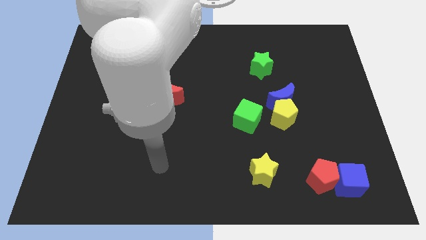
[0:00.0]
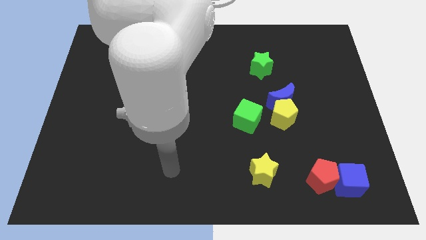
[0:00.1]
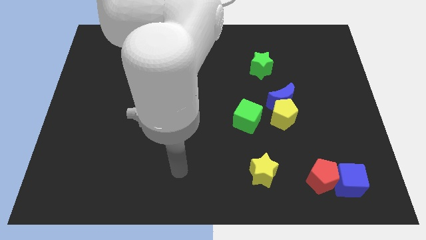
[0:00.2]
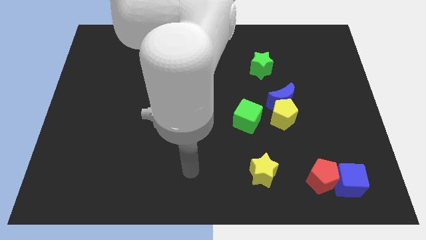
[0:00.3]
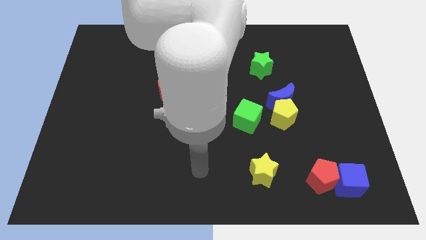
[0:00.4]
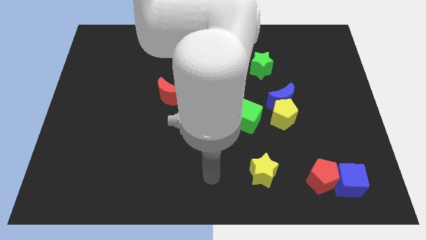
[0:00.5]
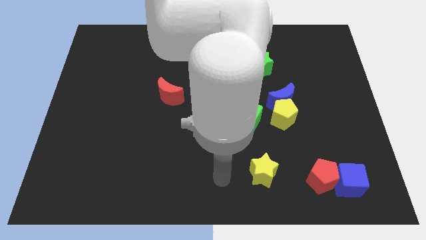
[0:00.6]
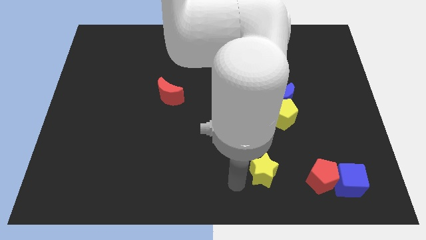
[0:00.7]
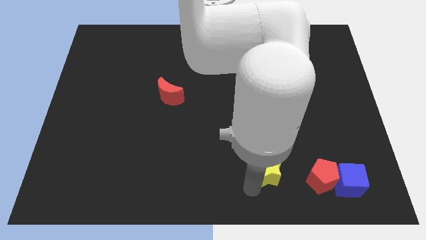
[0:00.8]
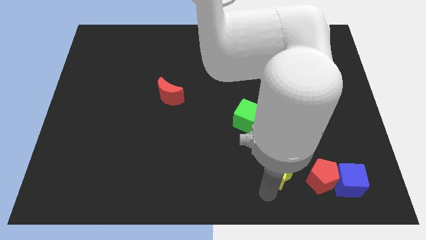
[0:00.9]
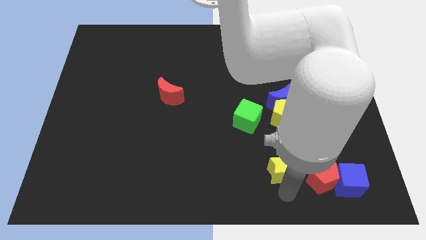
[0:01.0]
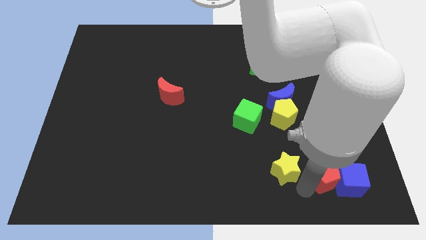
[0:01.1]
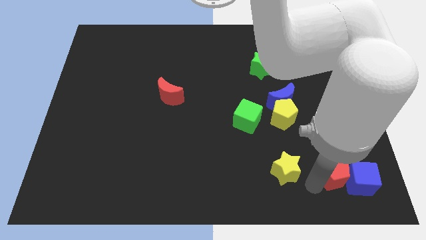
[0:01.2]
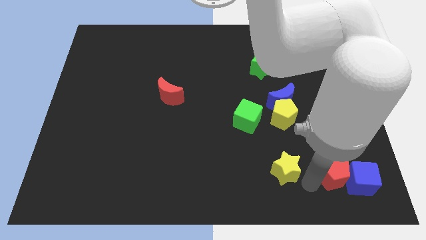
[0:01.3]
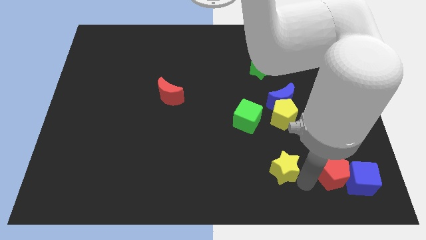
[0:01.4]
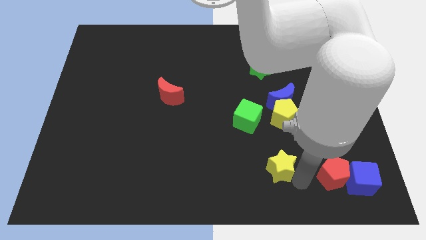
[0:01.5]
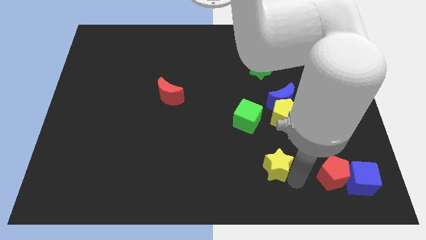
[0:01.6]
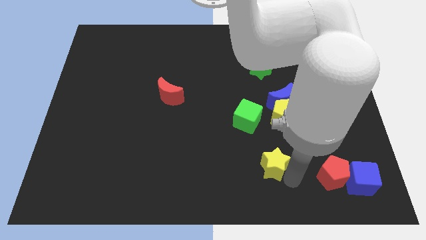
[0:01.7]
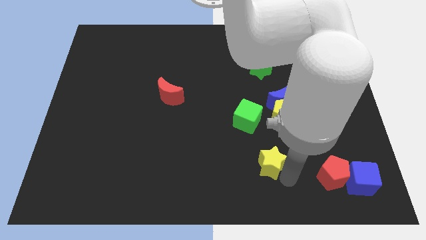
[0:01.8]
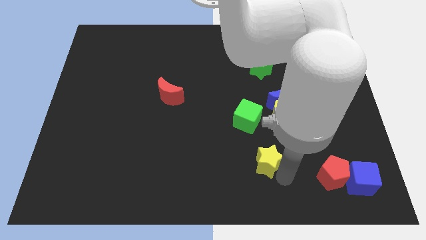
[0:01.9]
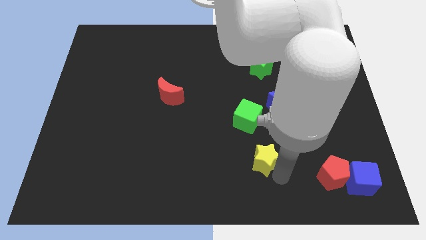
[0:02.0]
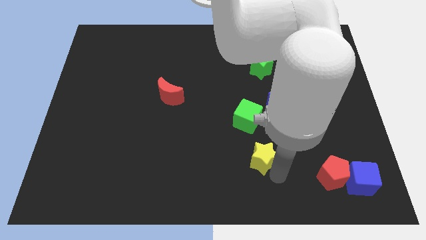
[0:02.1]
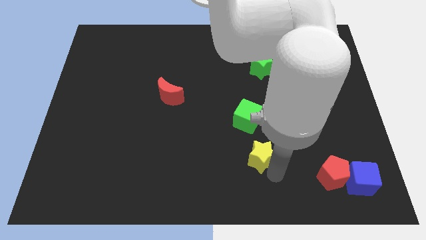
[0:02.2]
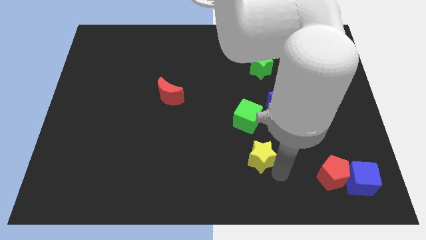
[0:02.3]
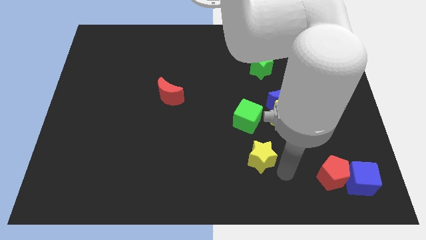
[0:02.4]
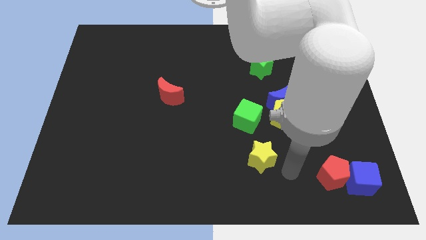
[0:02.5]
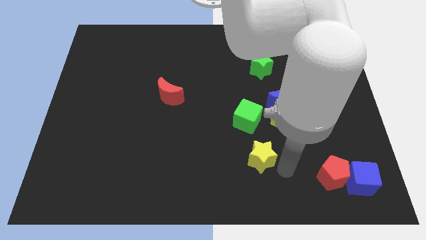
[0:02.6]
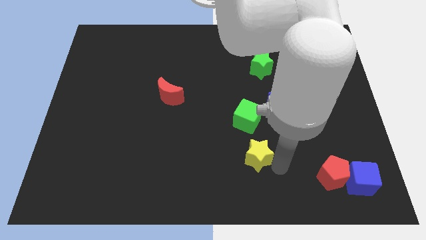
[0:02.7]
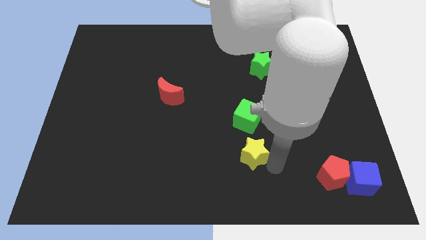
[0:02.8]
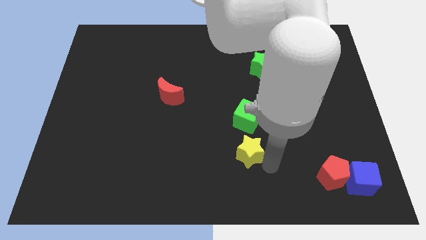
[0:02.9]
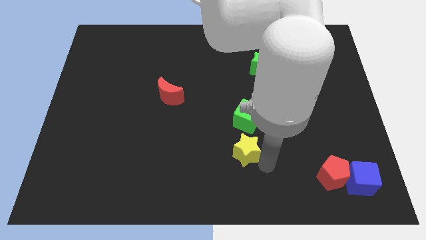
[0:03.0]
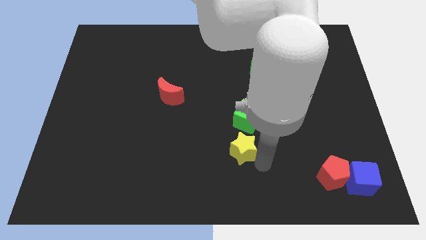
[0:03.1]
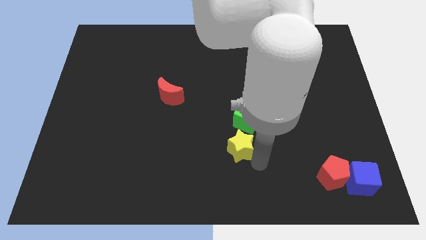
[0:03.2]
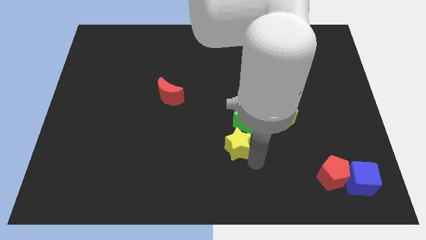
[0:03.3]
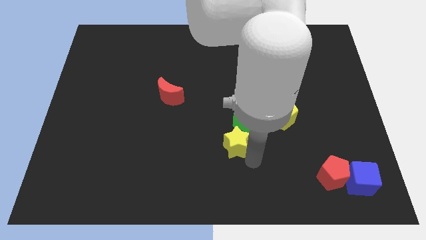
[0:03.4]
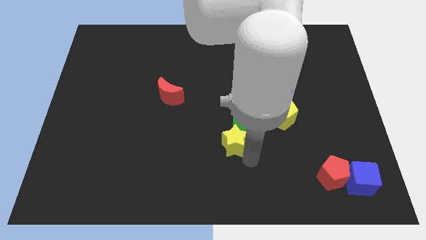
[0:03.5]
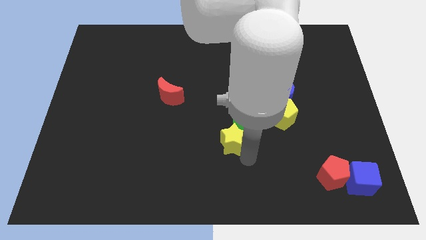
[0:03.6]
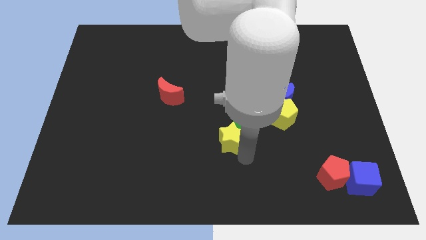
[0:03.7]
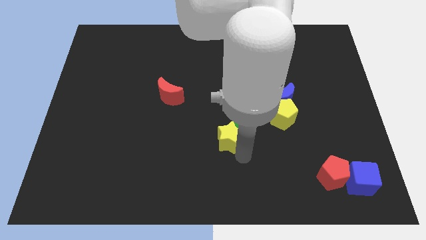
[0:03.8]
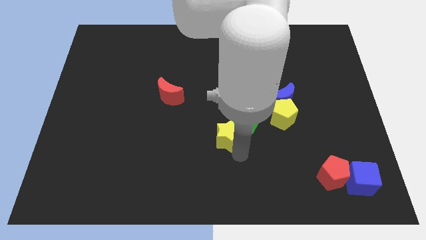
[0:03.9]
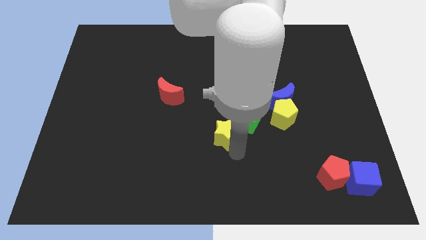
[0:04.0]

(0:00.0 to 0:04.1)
slightly push the yellow star up

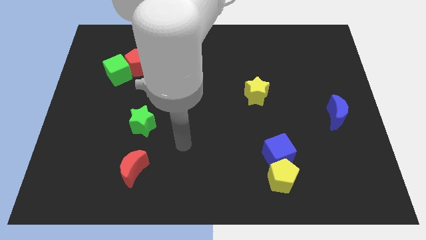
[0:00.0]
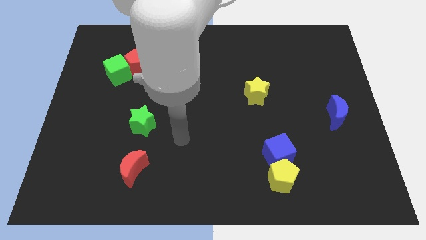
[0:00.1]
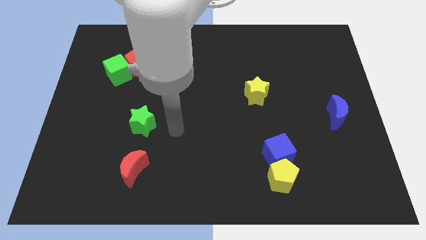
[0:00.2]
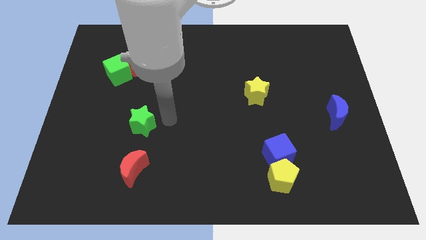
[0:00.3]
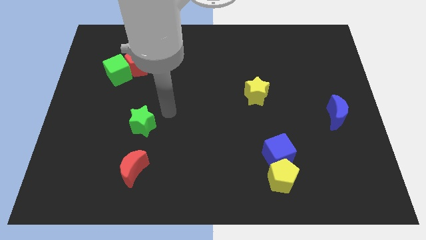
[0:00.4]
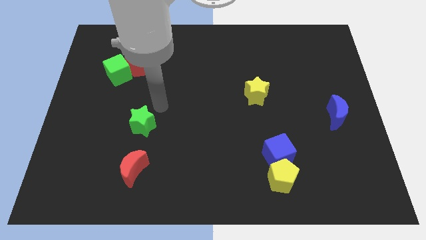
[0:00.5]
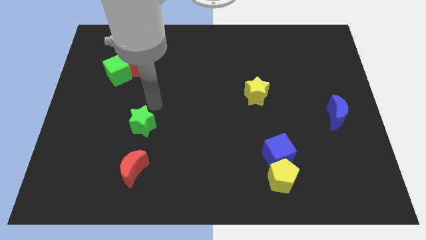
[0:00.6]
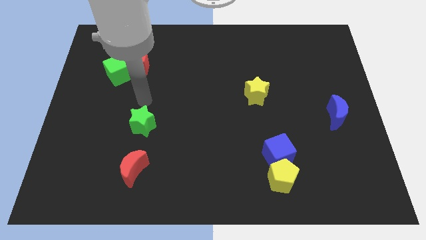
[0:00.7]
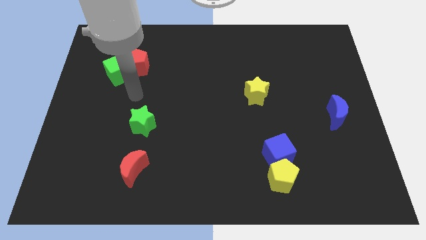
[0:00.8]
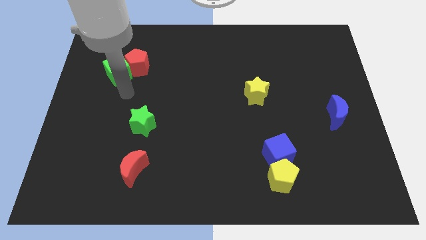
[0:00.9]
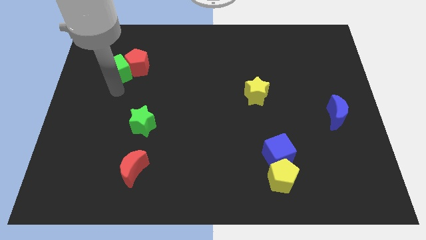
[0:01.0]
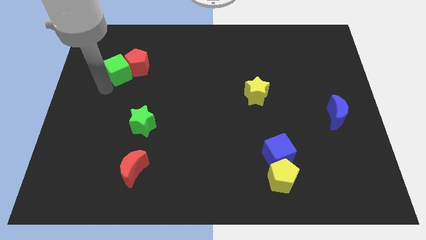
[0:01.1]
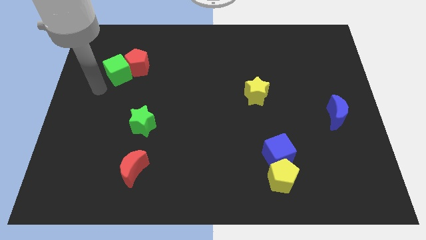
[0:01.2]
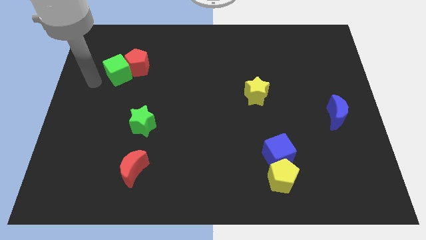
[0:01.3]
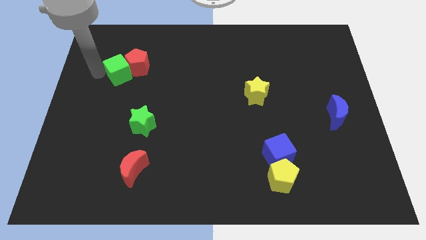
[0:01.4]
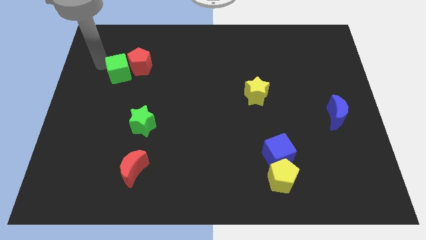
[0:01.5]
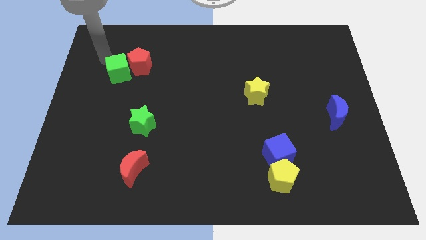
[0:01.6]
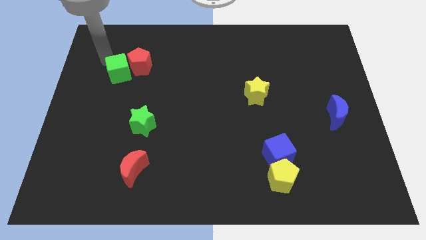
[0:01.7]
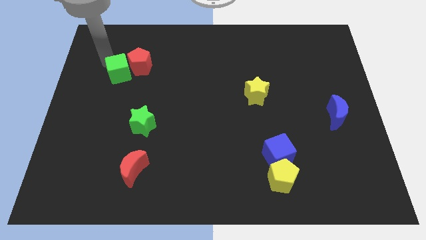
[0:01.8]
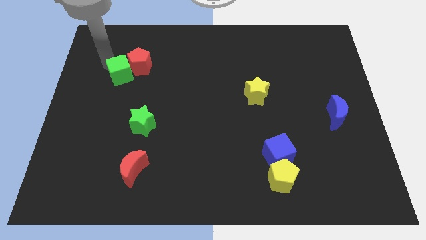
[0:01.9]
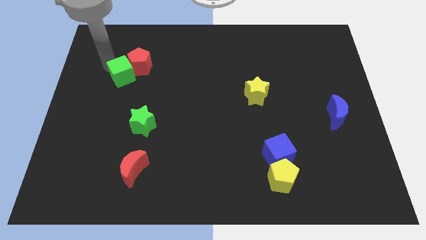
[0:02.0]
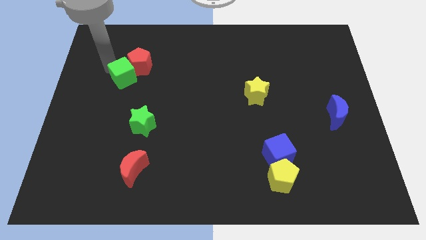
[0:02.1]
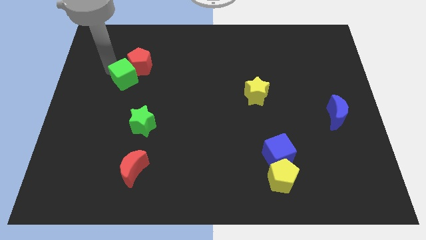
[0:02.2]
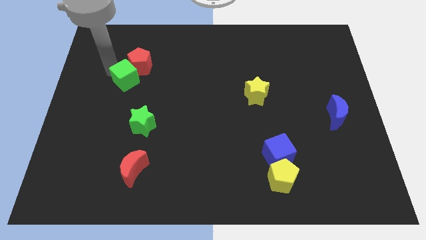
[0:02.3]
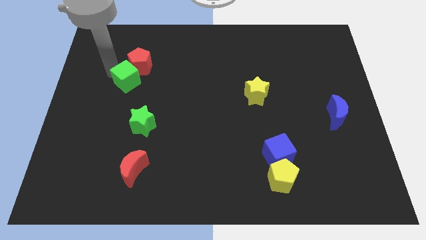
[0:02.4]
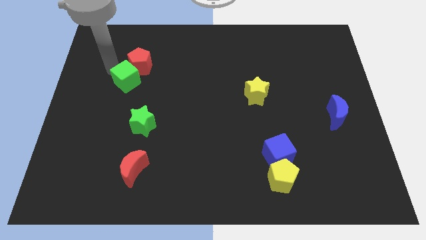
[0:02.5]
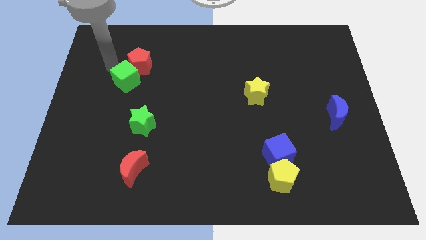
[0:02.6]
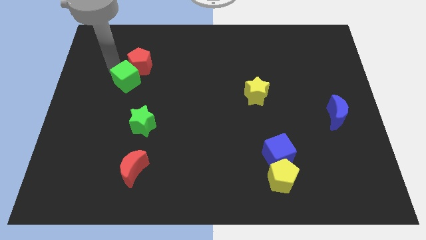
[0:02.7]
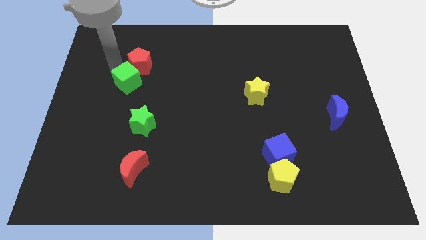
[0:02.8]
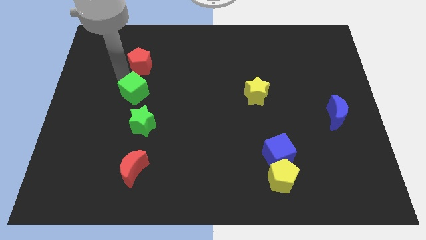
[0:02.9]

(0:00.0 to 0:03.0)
slide the green cube a little diagonally downwards and to the right

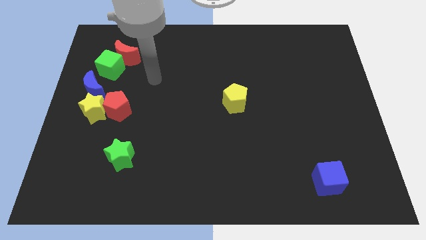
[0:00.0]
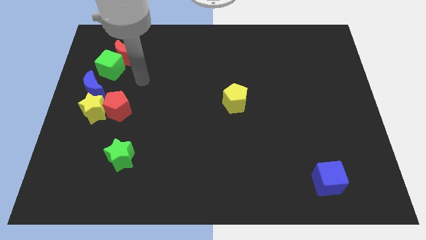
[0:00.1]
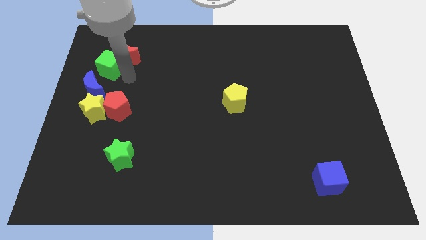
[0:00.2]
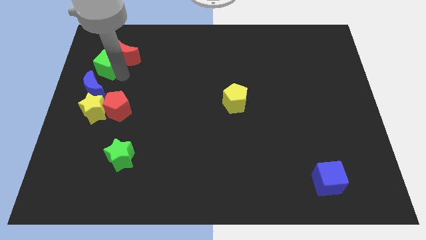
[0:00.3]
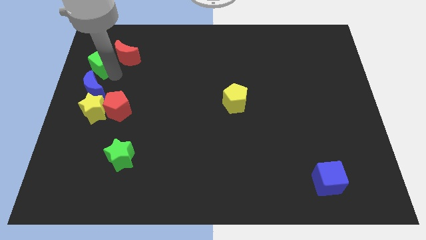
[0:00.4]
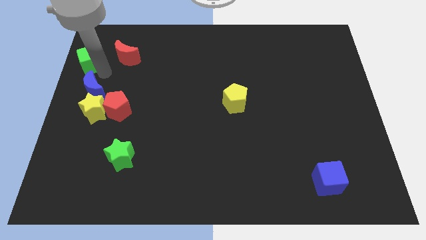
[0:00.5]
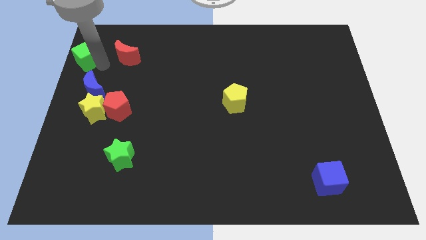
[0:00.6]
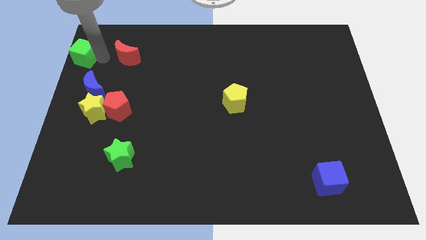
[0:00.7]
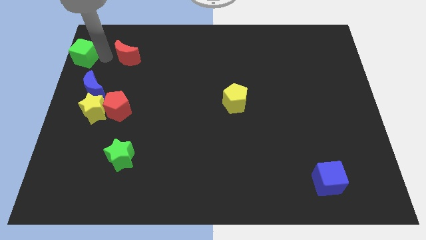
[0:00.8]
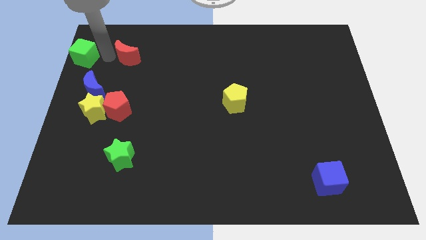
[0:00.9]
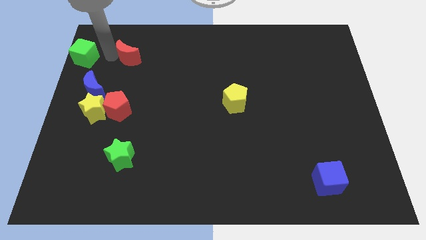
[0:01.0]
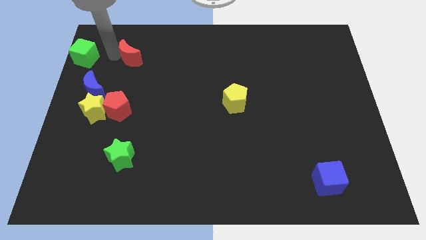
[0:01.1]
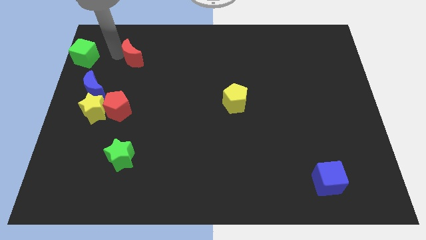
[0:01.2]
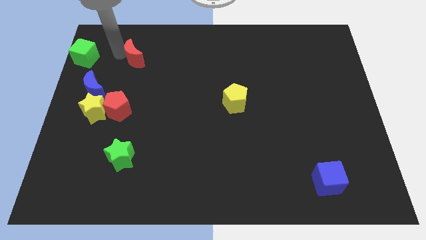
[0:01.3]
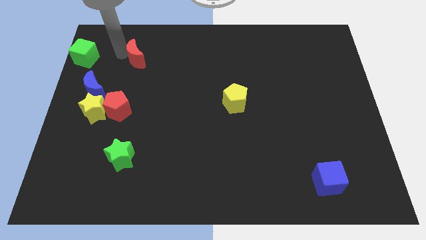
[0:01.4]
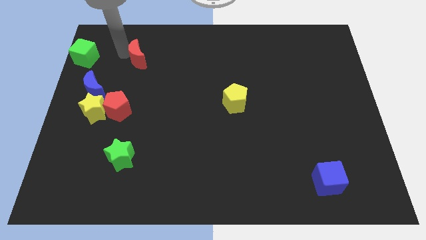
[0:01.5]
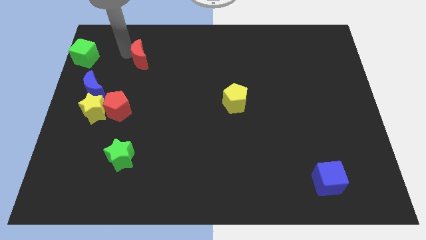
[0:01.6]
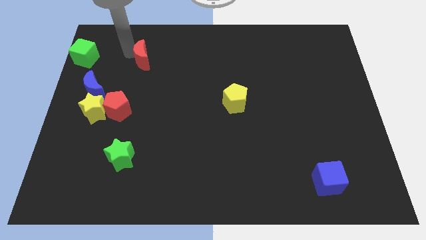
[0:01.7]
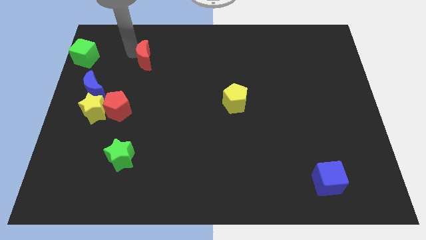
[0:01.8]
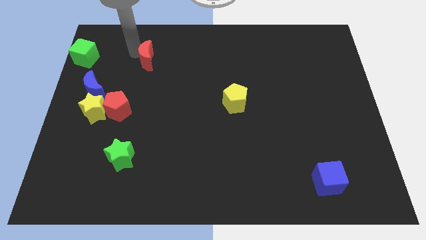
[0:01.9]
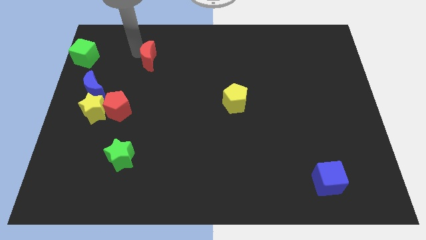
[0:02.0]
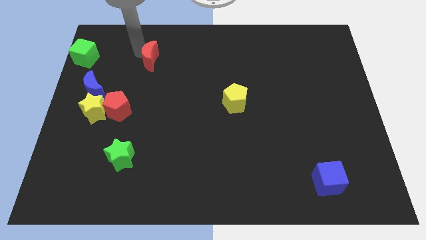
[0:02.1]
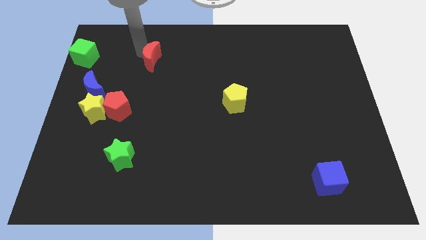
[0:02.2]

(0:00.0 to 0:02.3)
push the red moon right slightly
